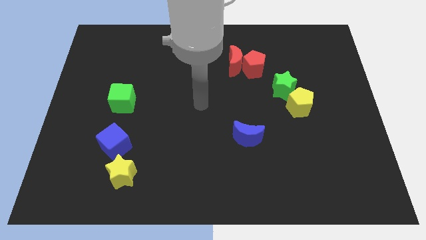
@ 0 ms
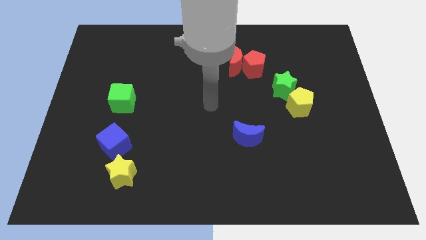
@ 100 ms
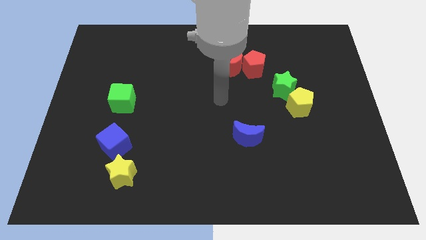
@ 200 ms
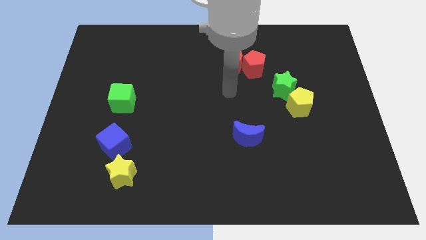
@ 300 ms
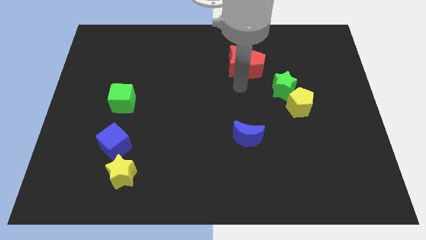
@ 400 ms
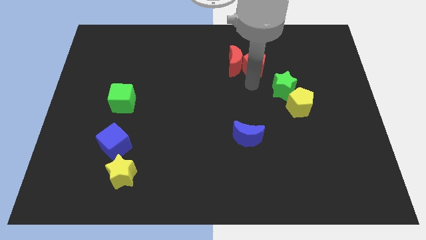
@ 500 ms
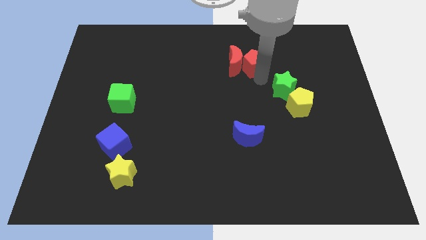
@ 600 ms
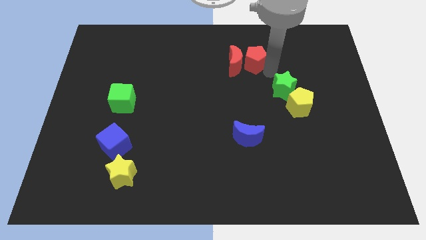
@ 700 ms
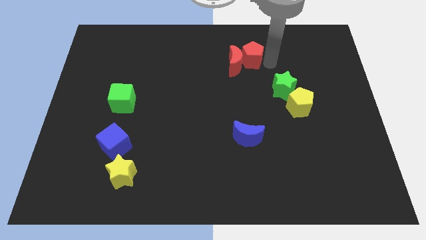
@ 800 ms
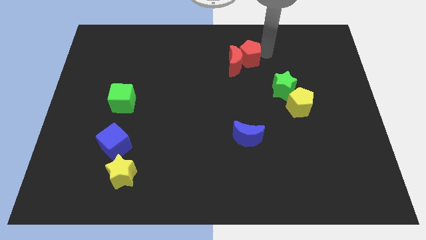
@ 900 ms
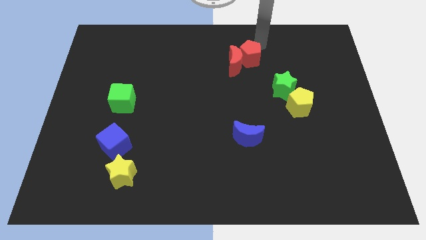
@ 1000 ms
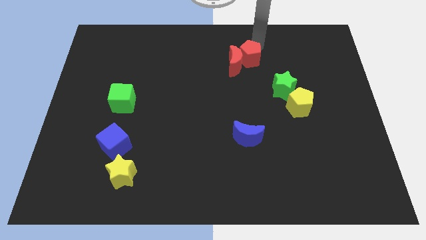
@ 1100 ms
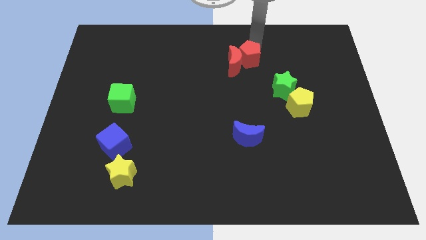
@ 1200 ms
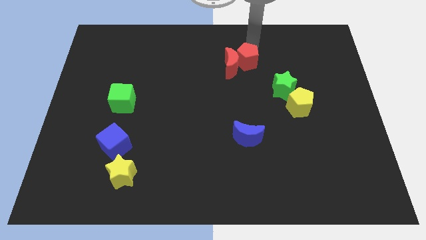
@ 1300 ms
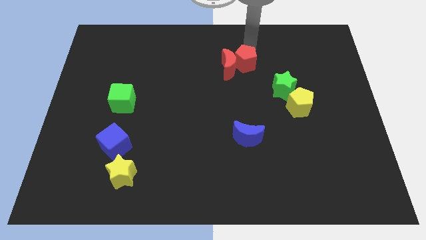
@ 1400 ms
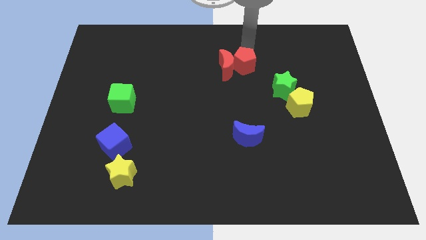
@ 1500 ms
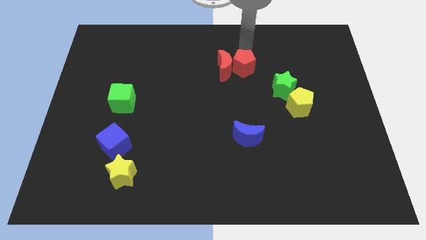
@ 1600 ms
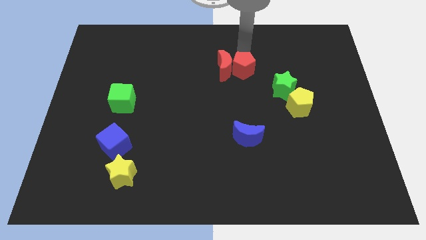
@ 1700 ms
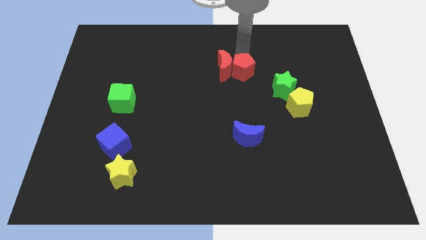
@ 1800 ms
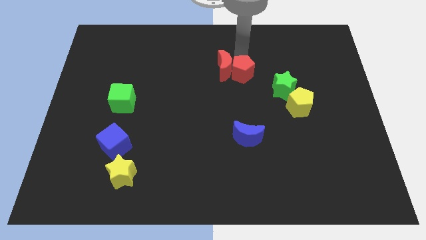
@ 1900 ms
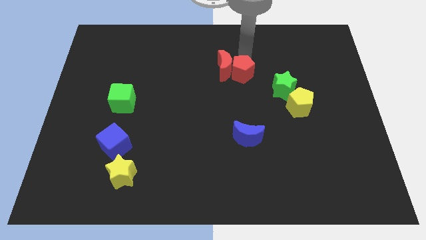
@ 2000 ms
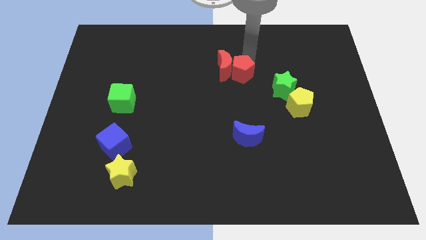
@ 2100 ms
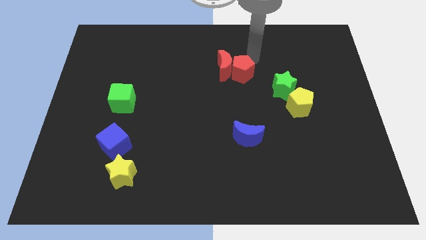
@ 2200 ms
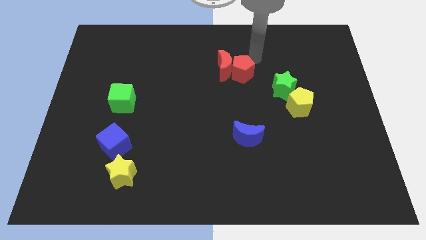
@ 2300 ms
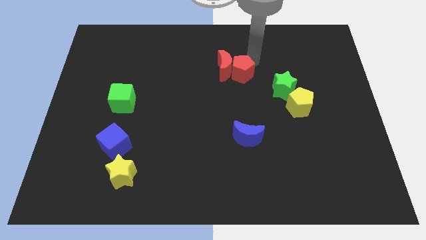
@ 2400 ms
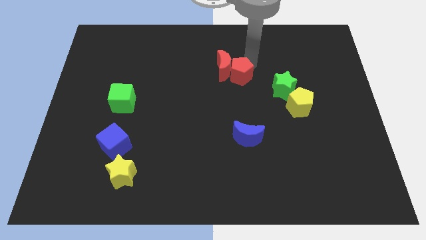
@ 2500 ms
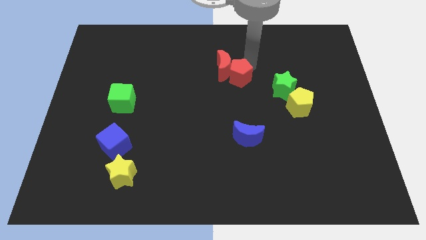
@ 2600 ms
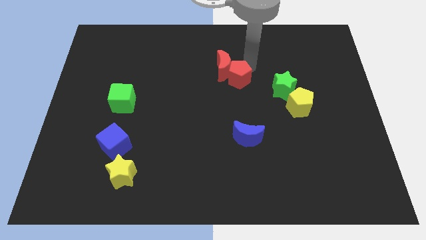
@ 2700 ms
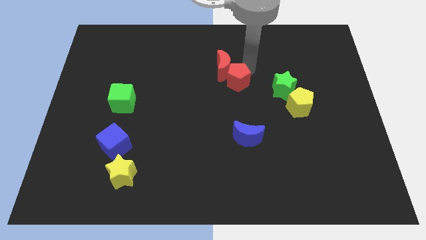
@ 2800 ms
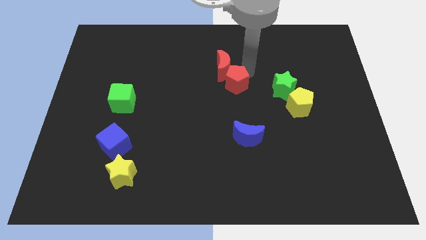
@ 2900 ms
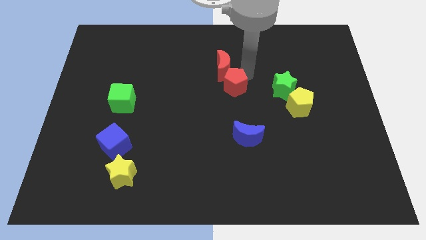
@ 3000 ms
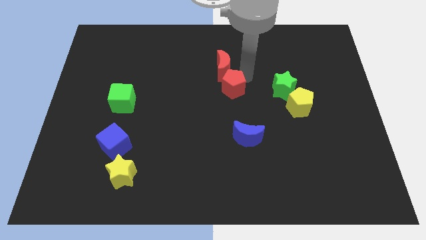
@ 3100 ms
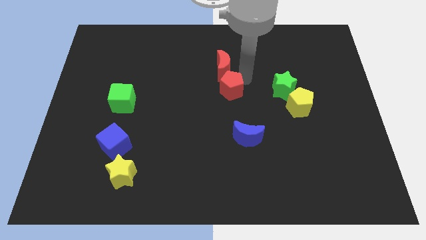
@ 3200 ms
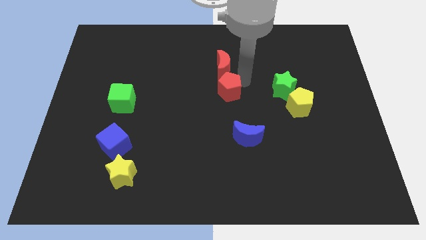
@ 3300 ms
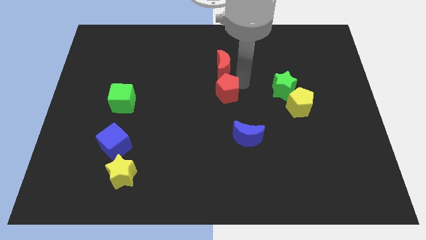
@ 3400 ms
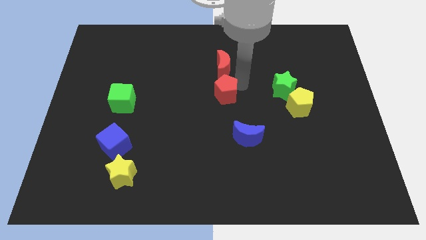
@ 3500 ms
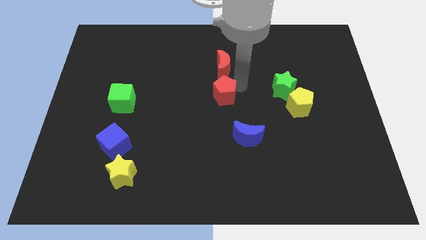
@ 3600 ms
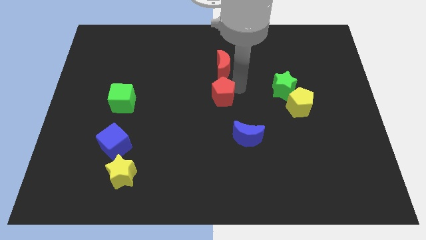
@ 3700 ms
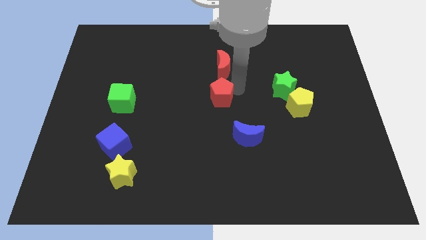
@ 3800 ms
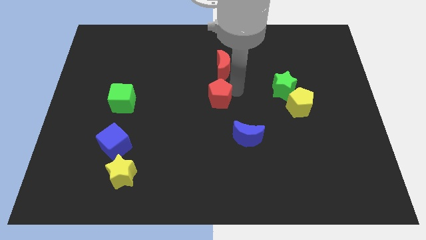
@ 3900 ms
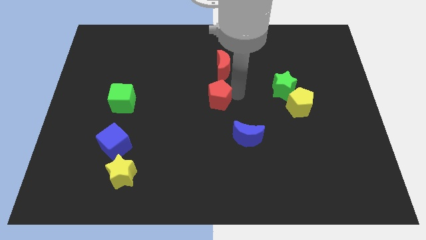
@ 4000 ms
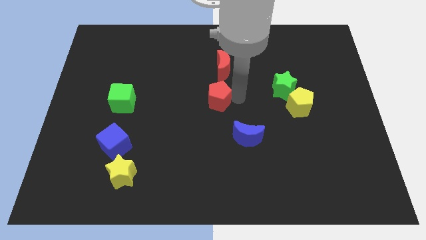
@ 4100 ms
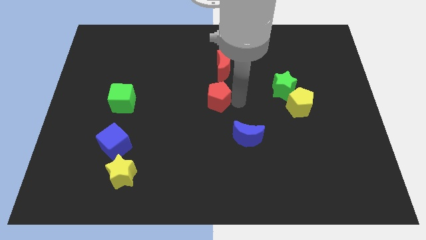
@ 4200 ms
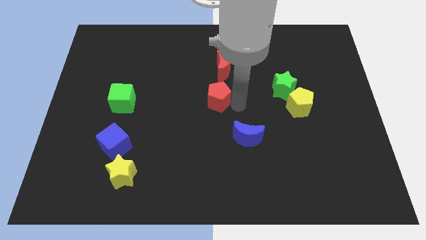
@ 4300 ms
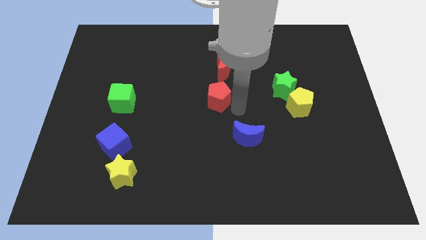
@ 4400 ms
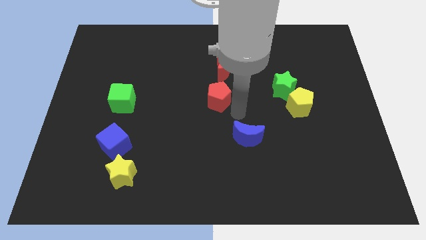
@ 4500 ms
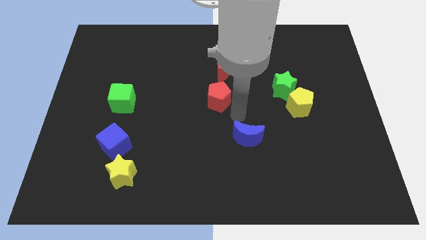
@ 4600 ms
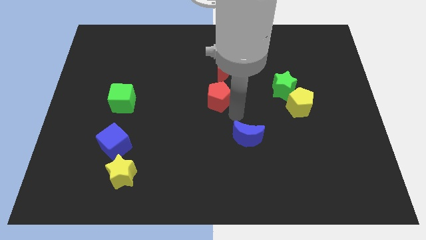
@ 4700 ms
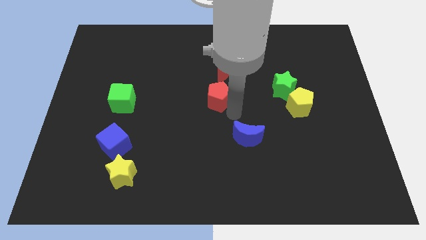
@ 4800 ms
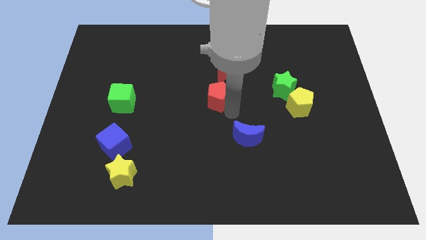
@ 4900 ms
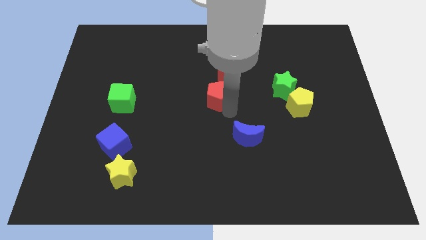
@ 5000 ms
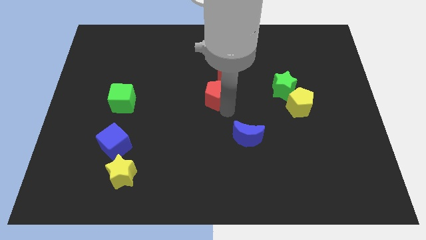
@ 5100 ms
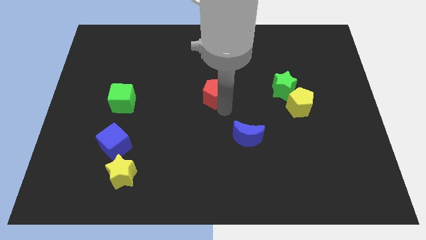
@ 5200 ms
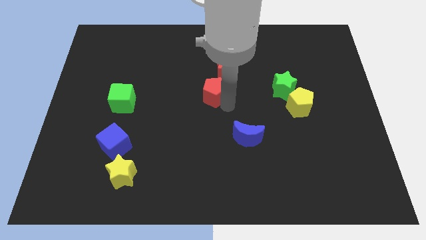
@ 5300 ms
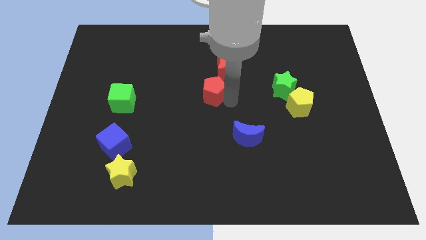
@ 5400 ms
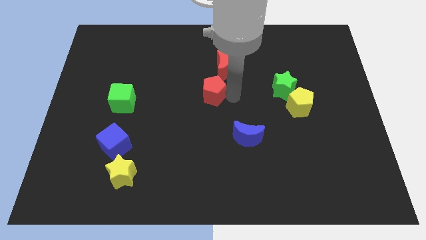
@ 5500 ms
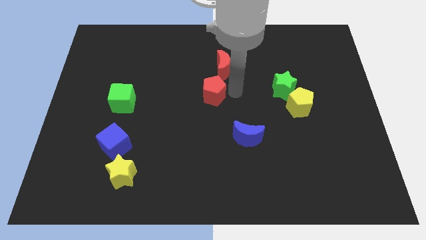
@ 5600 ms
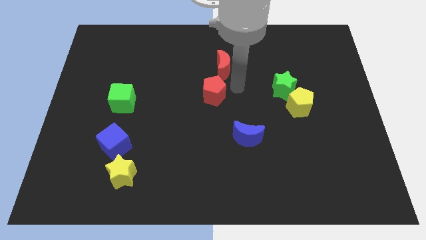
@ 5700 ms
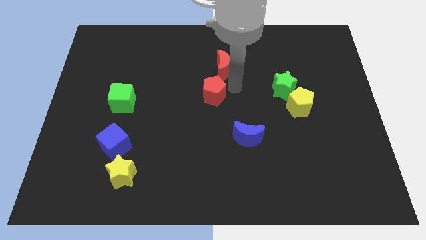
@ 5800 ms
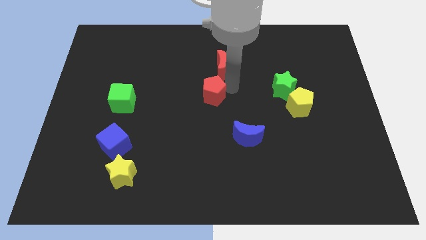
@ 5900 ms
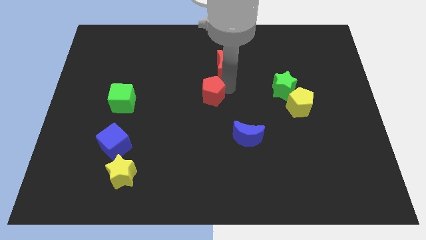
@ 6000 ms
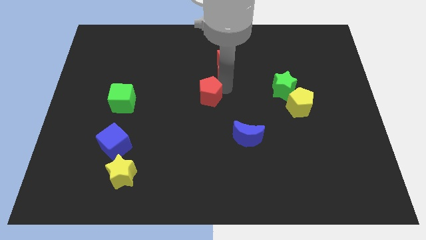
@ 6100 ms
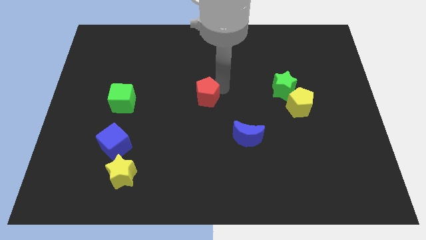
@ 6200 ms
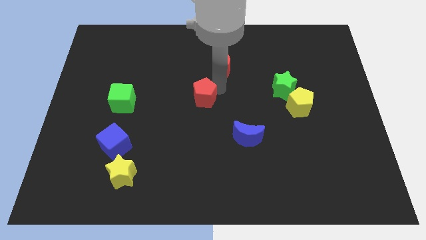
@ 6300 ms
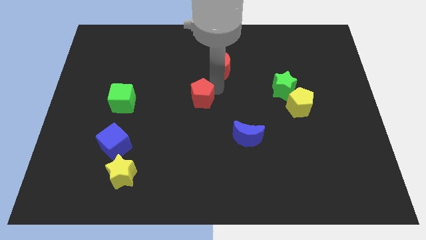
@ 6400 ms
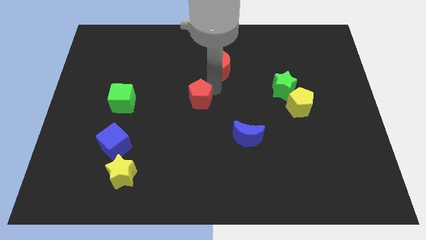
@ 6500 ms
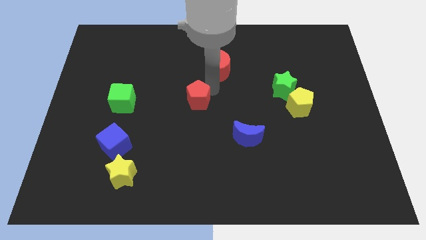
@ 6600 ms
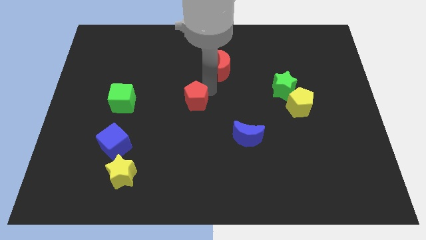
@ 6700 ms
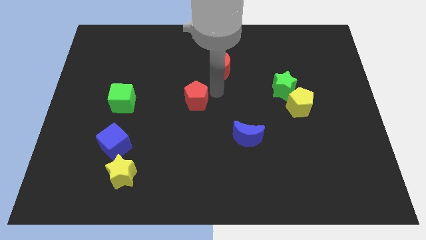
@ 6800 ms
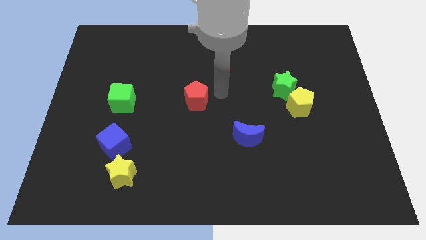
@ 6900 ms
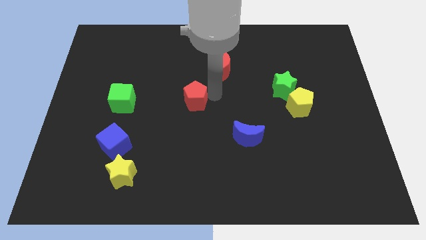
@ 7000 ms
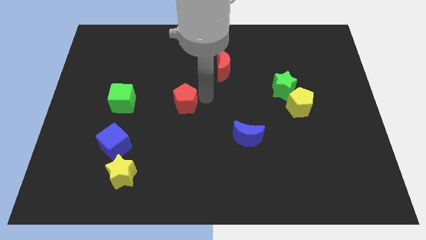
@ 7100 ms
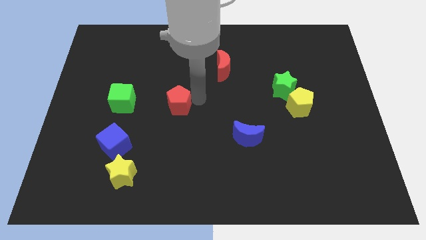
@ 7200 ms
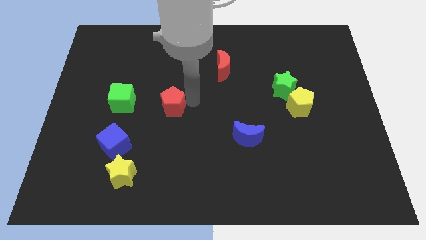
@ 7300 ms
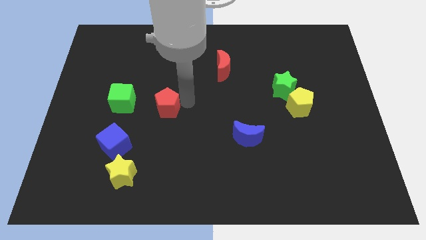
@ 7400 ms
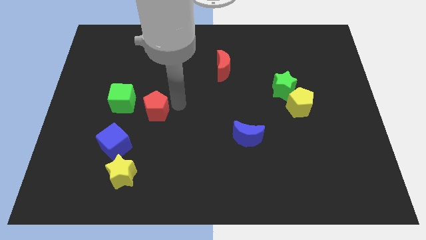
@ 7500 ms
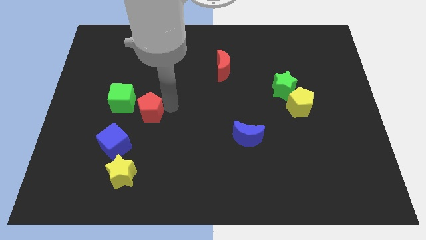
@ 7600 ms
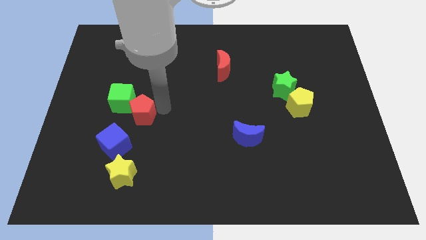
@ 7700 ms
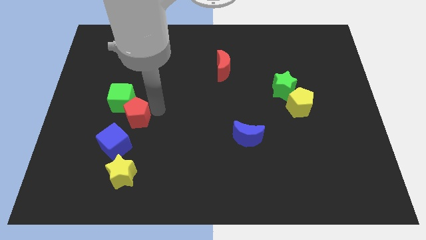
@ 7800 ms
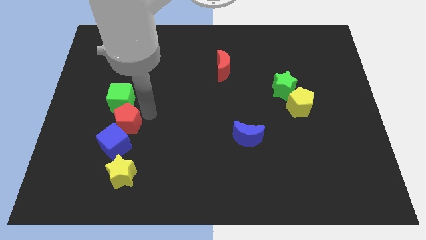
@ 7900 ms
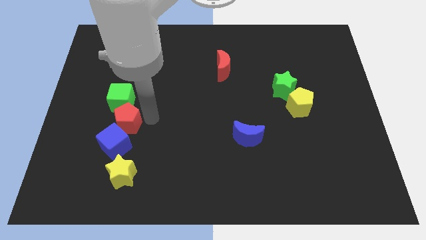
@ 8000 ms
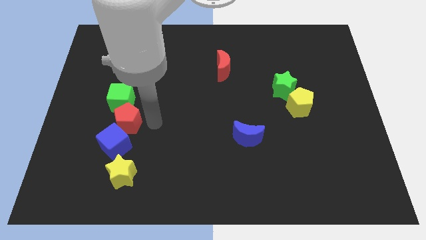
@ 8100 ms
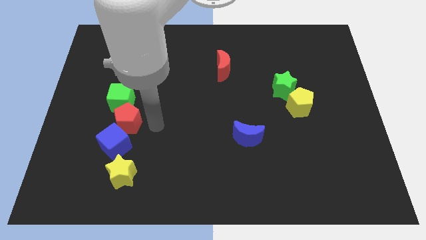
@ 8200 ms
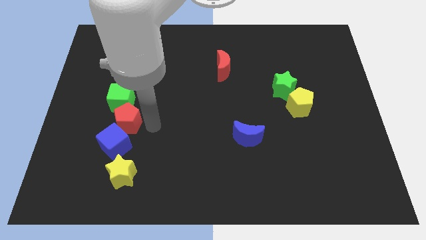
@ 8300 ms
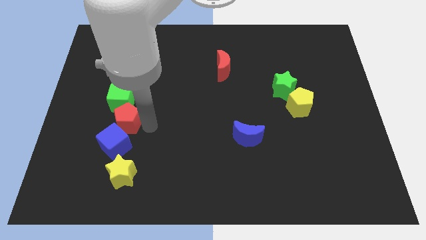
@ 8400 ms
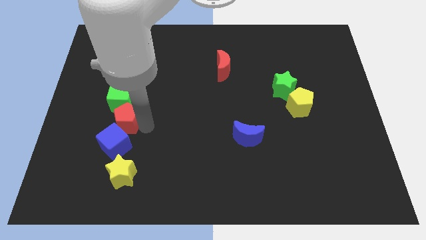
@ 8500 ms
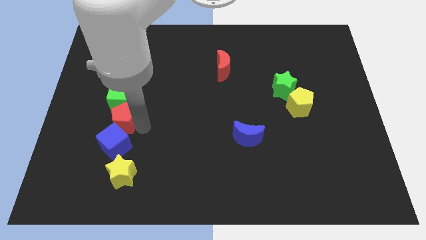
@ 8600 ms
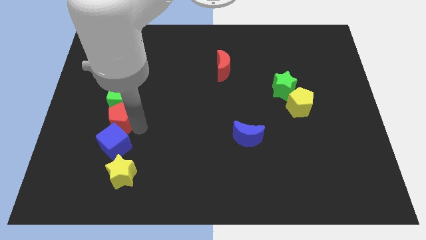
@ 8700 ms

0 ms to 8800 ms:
move the red pentagon to the bottom left of the green cube
